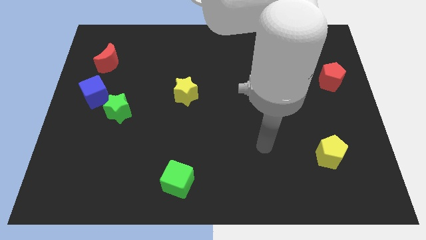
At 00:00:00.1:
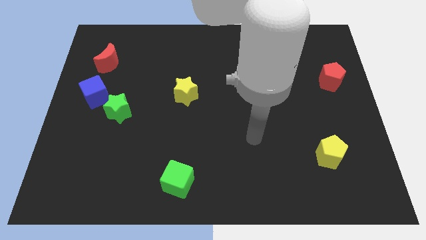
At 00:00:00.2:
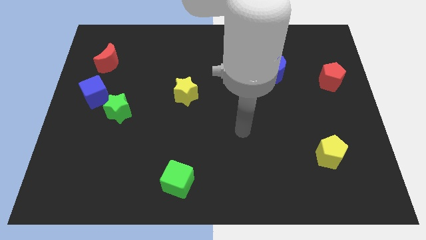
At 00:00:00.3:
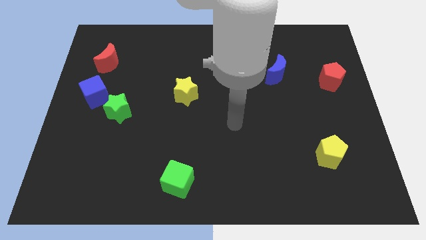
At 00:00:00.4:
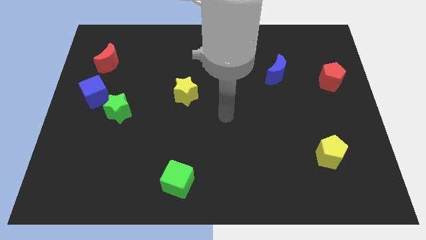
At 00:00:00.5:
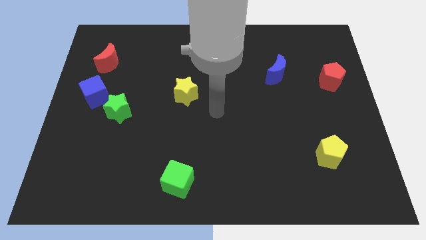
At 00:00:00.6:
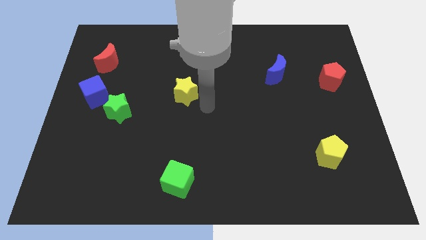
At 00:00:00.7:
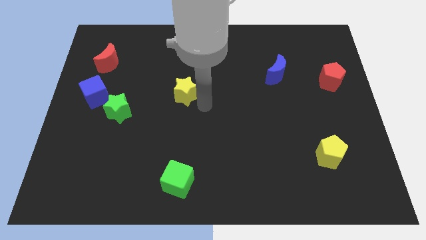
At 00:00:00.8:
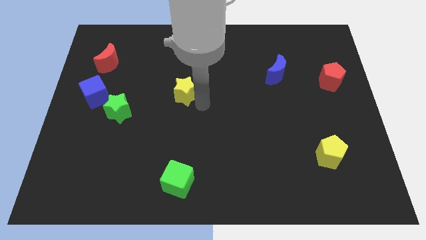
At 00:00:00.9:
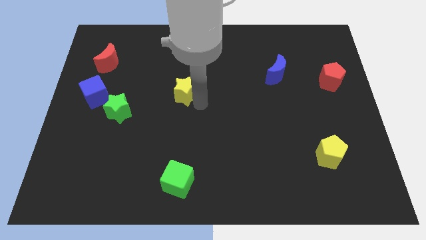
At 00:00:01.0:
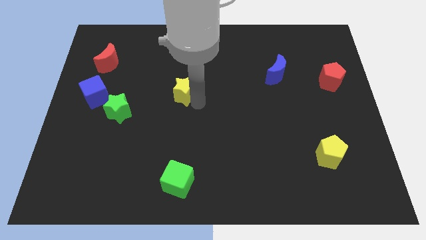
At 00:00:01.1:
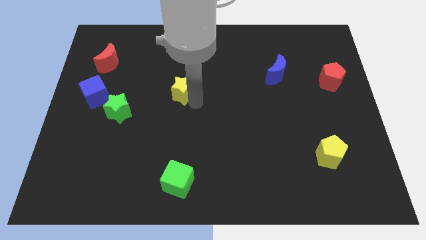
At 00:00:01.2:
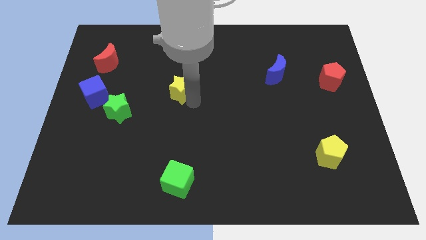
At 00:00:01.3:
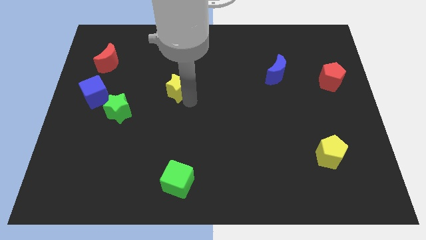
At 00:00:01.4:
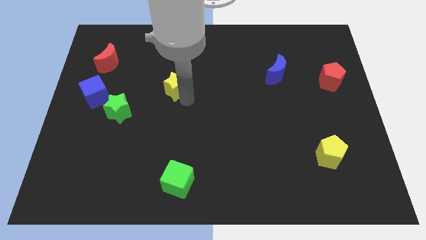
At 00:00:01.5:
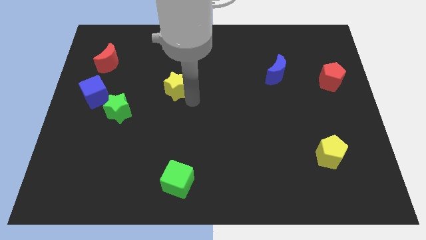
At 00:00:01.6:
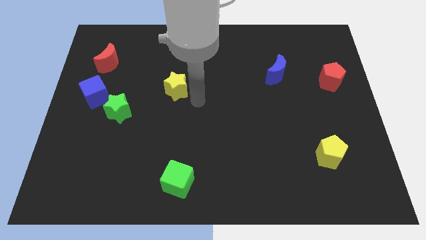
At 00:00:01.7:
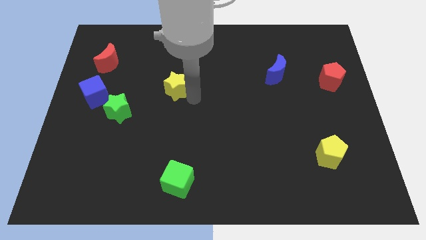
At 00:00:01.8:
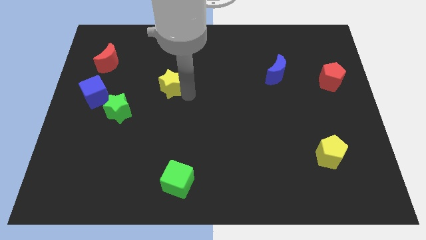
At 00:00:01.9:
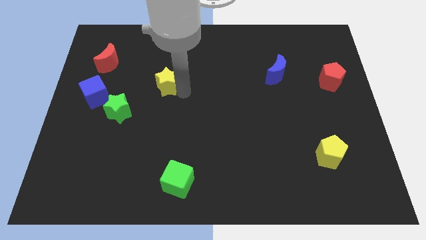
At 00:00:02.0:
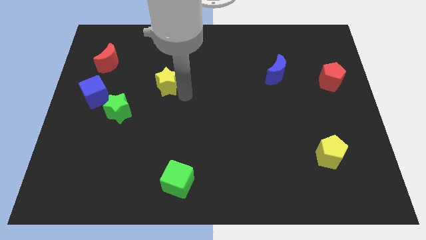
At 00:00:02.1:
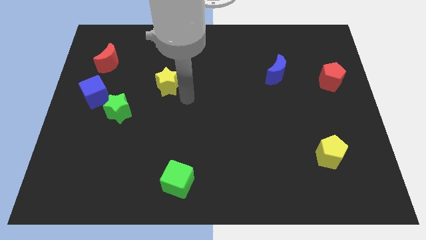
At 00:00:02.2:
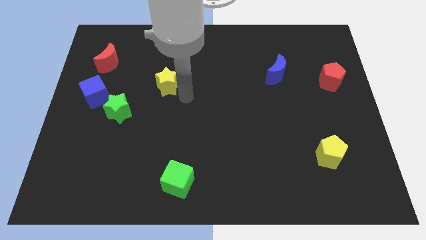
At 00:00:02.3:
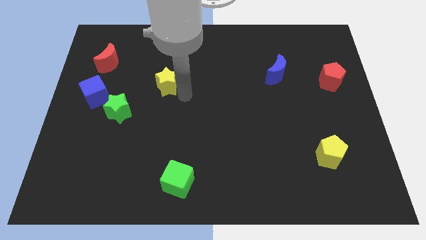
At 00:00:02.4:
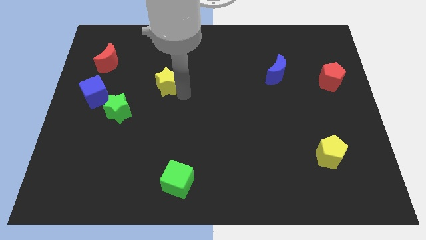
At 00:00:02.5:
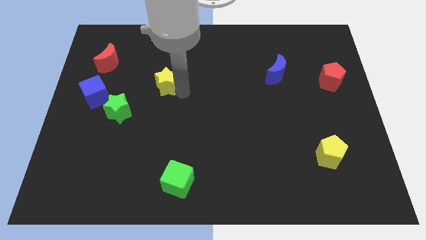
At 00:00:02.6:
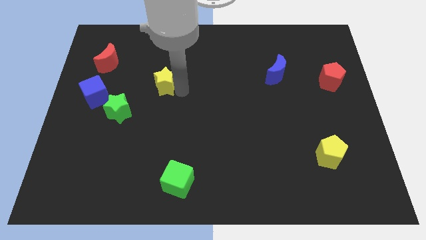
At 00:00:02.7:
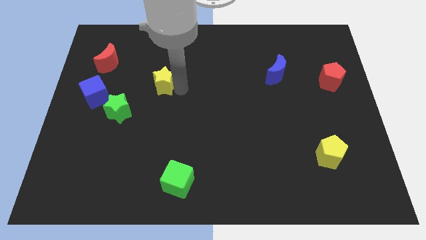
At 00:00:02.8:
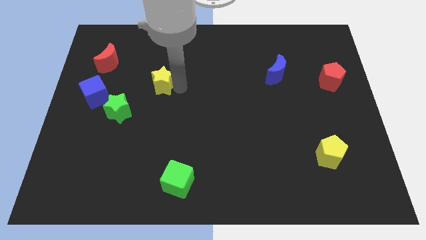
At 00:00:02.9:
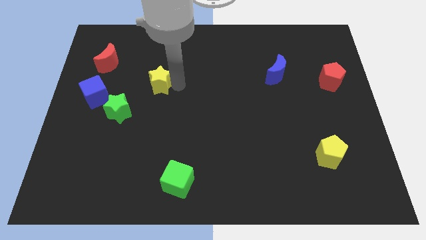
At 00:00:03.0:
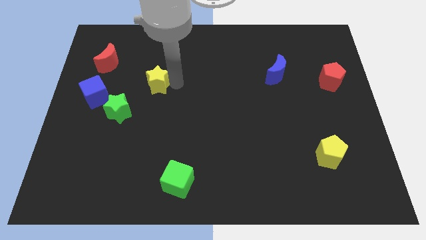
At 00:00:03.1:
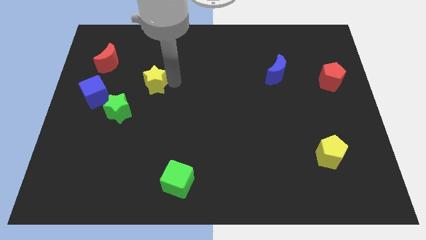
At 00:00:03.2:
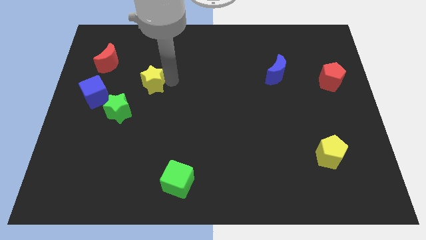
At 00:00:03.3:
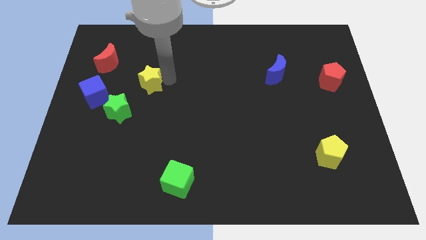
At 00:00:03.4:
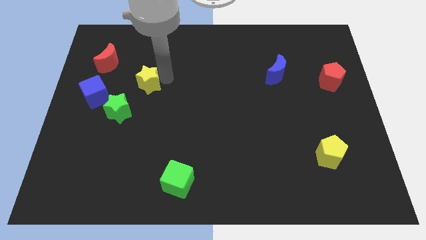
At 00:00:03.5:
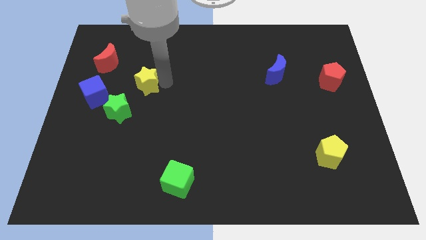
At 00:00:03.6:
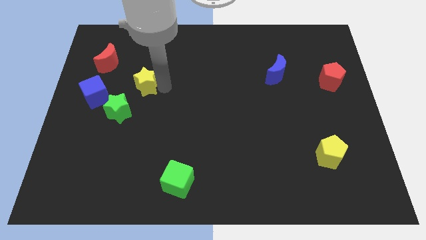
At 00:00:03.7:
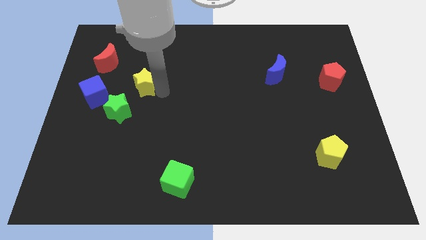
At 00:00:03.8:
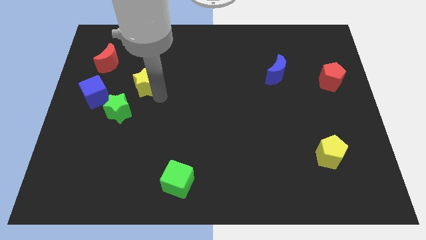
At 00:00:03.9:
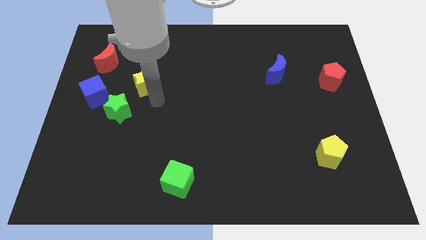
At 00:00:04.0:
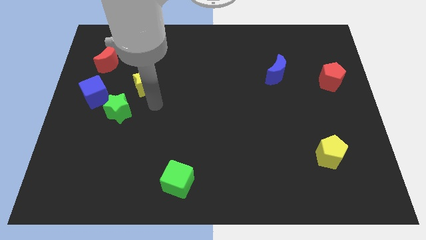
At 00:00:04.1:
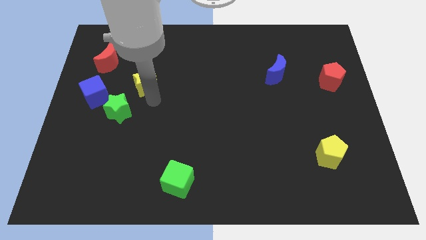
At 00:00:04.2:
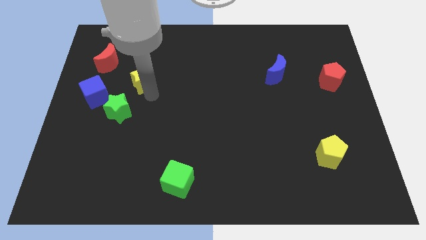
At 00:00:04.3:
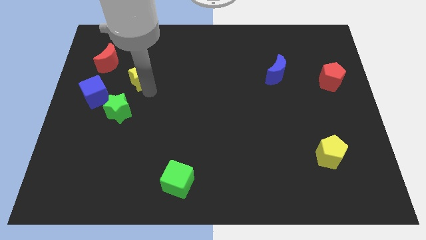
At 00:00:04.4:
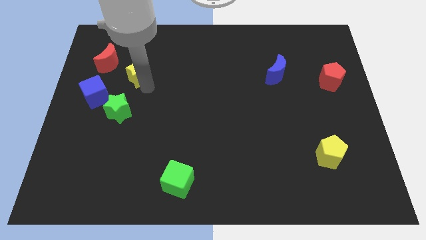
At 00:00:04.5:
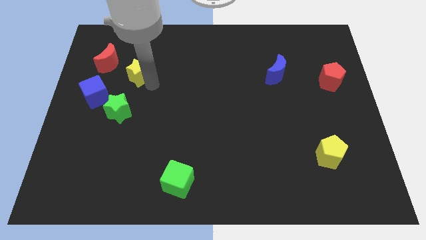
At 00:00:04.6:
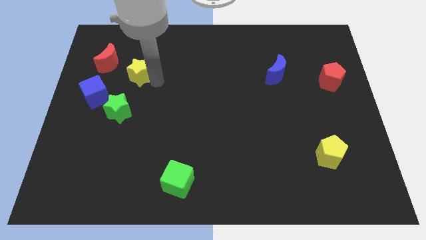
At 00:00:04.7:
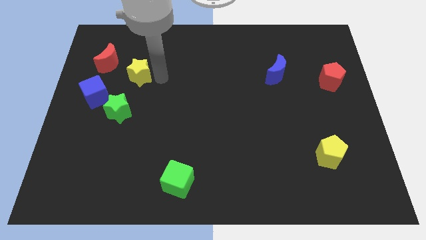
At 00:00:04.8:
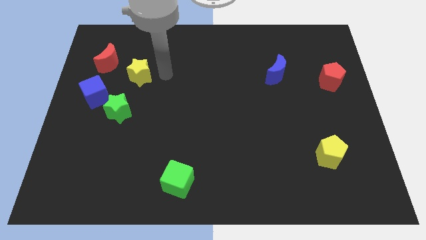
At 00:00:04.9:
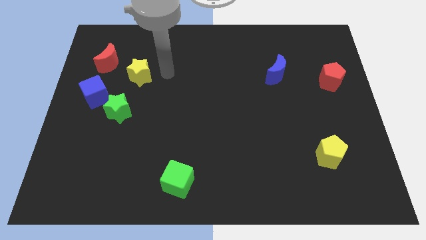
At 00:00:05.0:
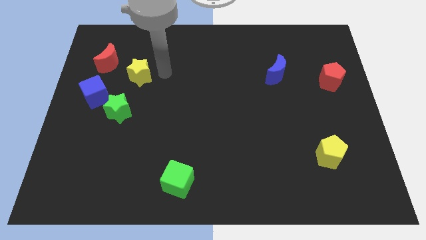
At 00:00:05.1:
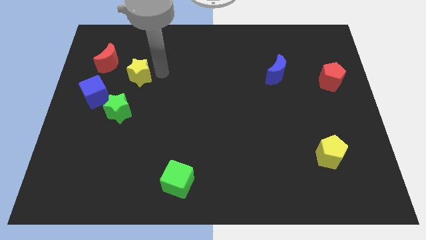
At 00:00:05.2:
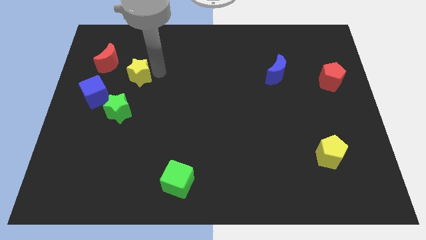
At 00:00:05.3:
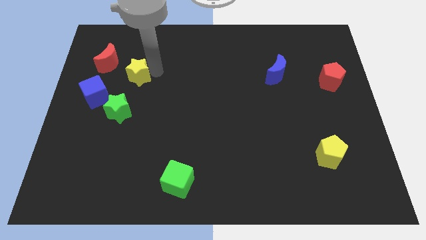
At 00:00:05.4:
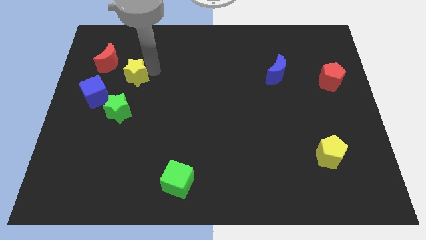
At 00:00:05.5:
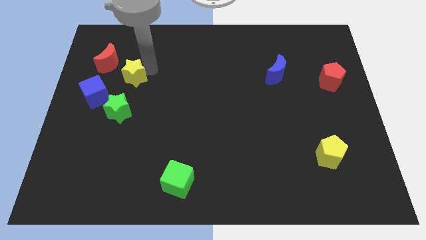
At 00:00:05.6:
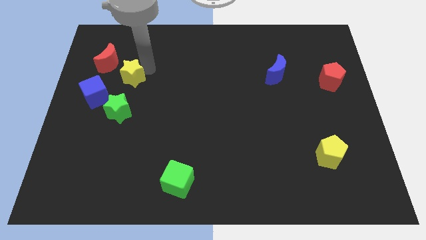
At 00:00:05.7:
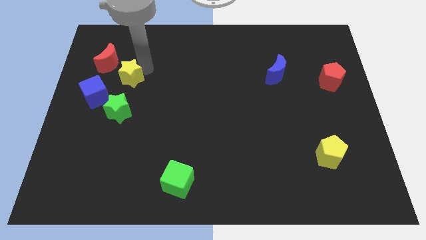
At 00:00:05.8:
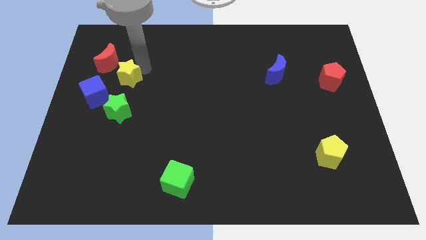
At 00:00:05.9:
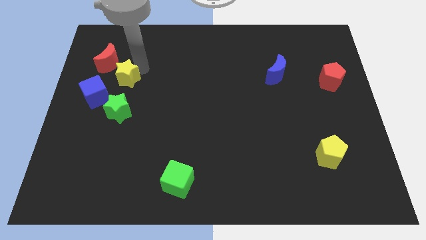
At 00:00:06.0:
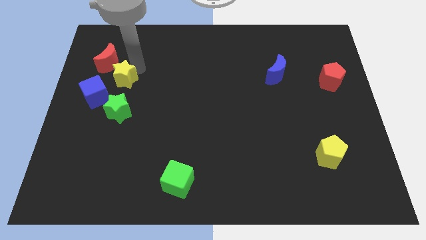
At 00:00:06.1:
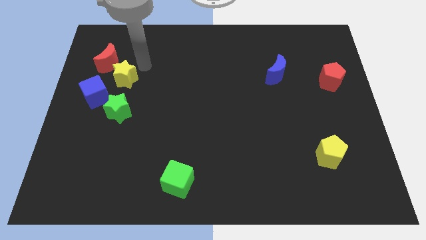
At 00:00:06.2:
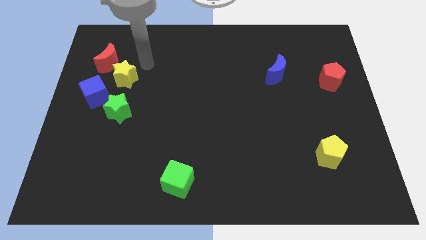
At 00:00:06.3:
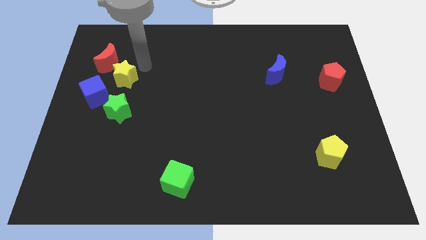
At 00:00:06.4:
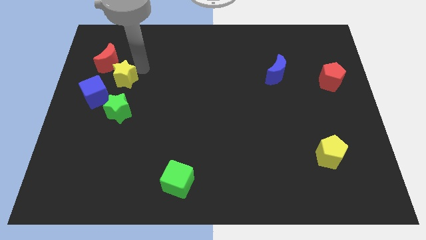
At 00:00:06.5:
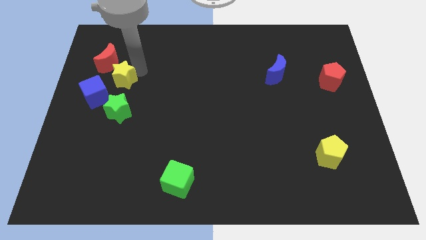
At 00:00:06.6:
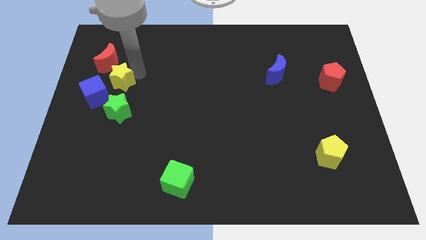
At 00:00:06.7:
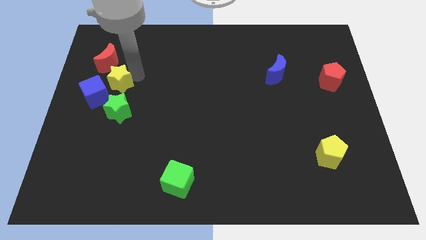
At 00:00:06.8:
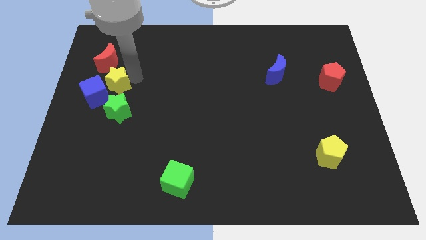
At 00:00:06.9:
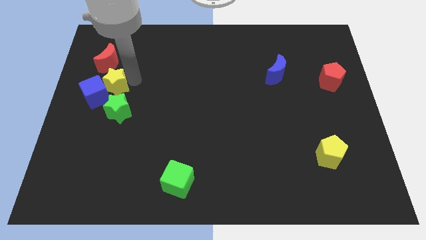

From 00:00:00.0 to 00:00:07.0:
move the yellow star next to the blue cube
